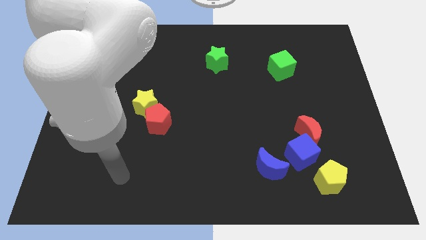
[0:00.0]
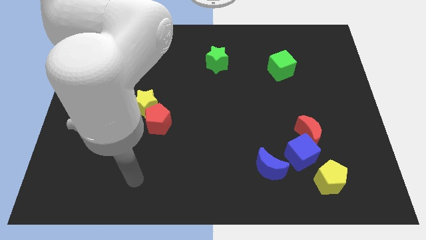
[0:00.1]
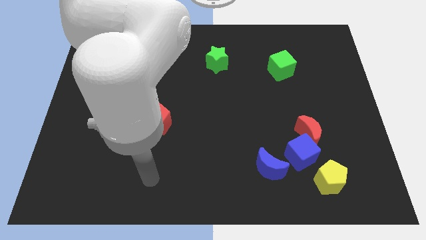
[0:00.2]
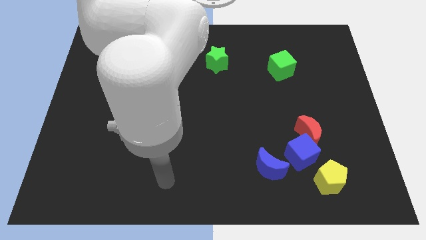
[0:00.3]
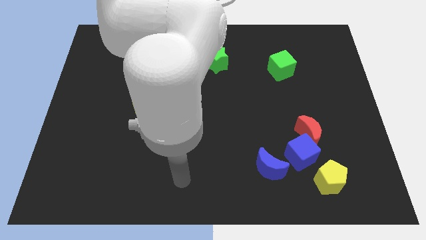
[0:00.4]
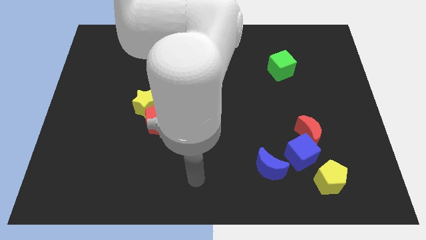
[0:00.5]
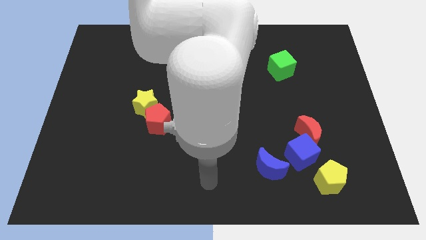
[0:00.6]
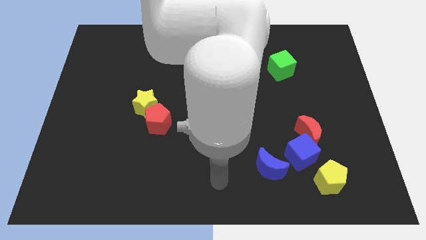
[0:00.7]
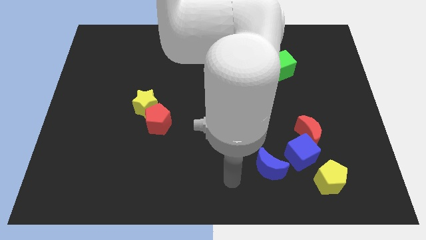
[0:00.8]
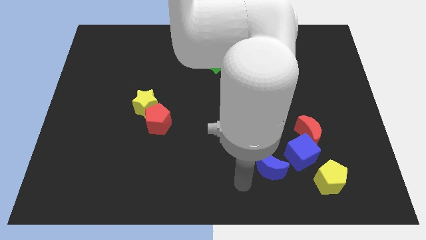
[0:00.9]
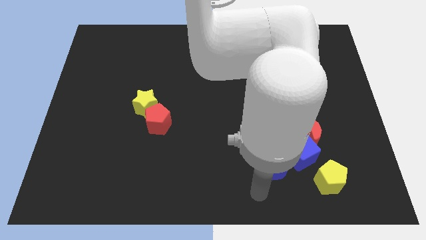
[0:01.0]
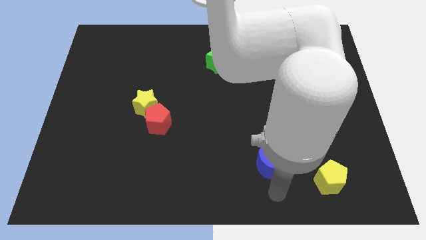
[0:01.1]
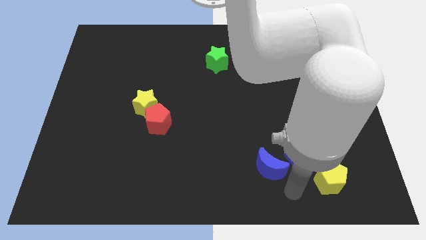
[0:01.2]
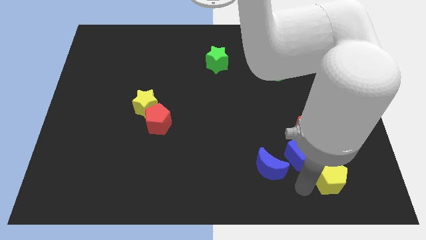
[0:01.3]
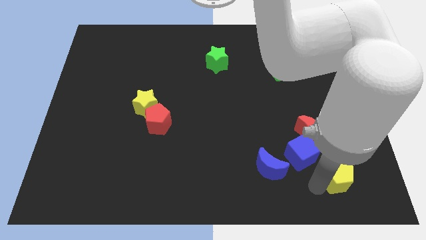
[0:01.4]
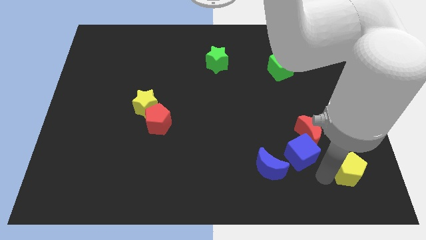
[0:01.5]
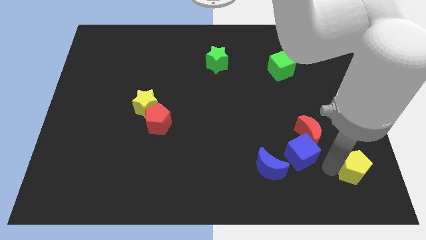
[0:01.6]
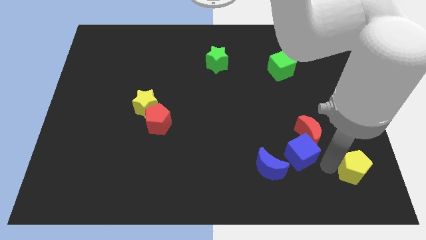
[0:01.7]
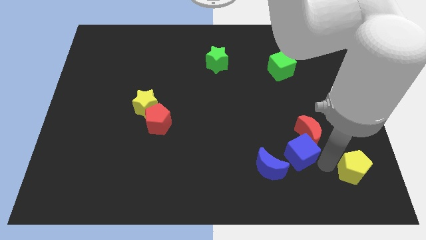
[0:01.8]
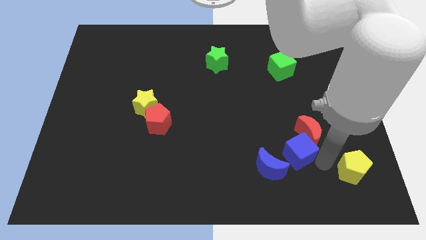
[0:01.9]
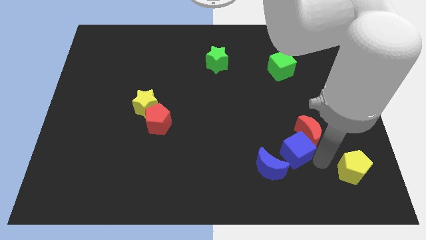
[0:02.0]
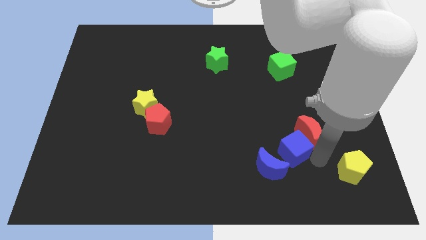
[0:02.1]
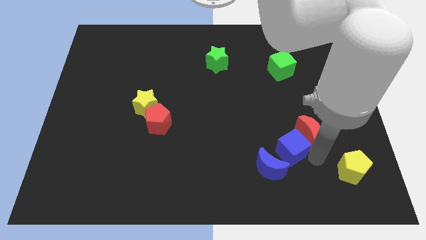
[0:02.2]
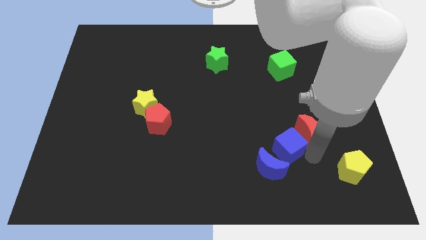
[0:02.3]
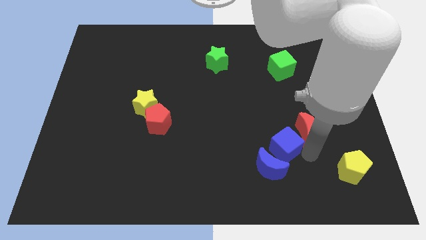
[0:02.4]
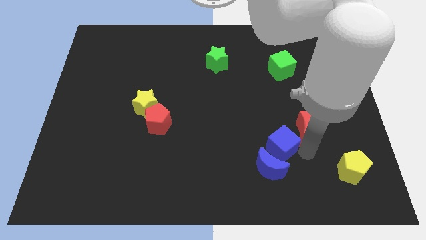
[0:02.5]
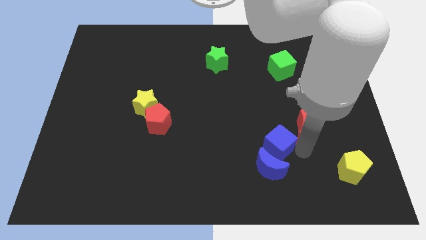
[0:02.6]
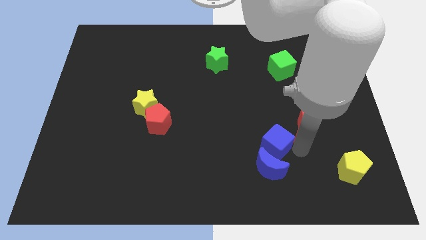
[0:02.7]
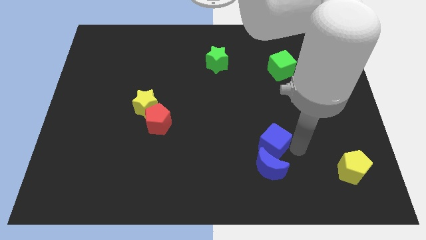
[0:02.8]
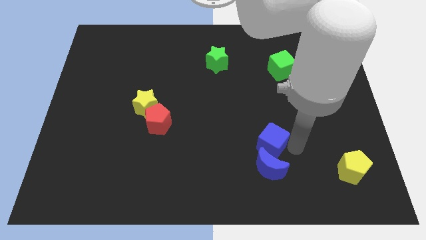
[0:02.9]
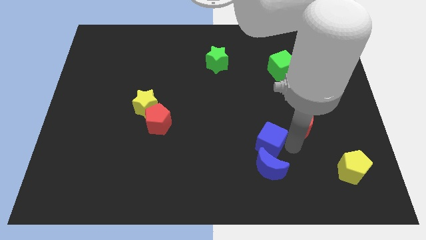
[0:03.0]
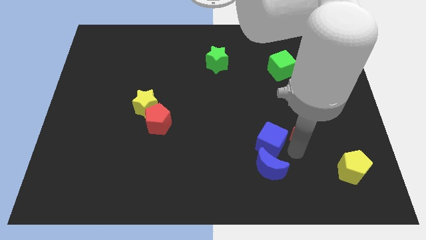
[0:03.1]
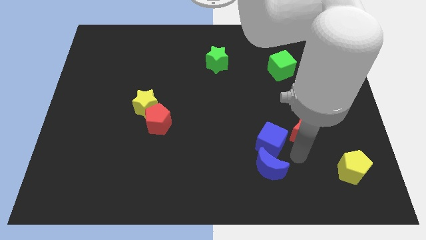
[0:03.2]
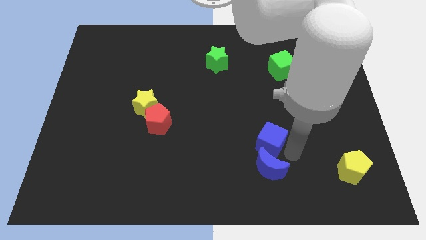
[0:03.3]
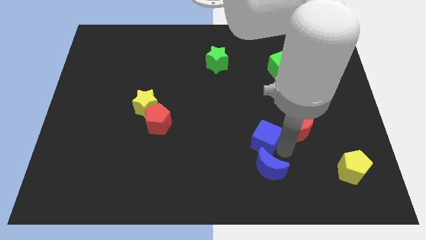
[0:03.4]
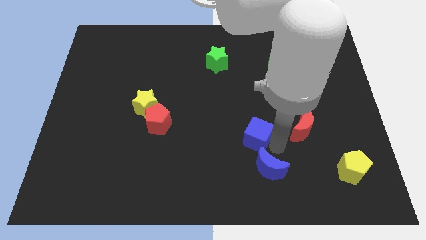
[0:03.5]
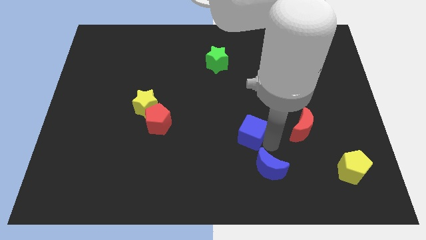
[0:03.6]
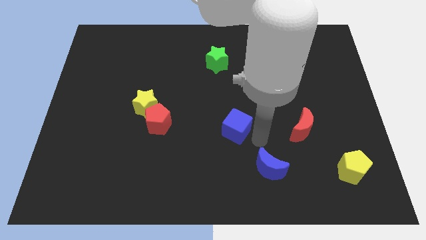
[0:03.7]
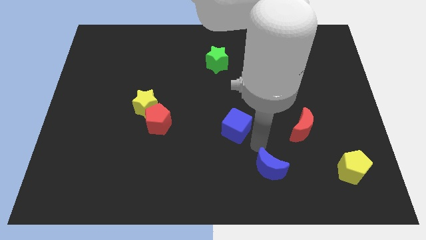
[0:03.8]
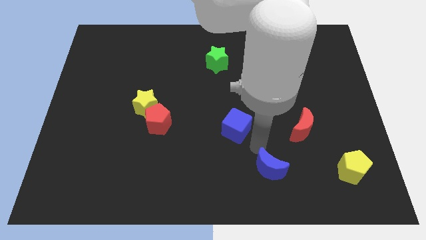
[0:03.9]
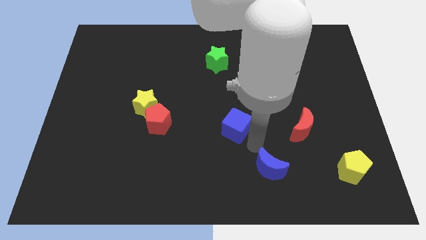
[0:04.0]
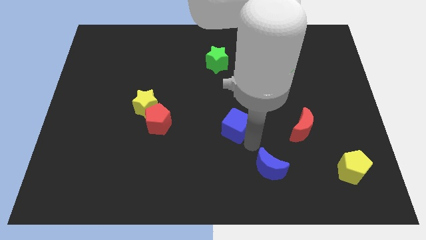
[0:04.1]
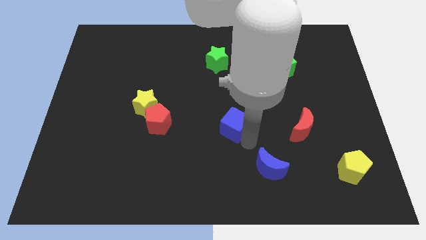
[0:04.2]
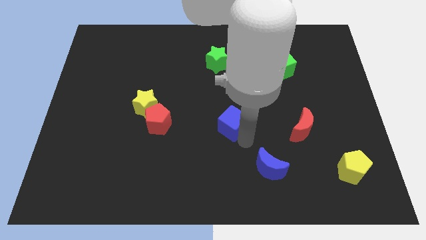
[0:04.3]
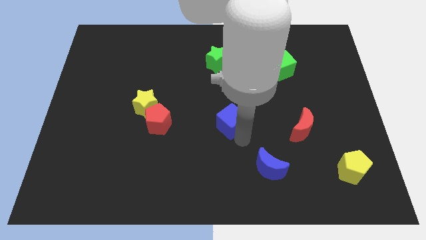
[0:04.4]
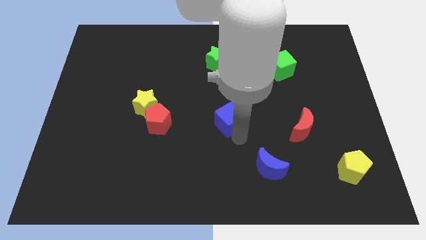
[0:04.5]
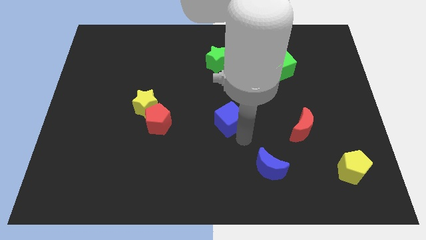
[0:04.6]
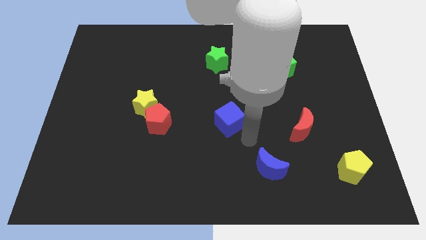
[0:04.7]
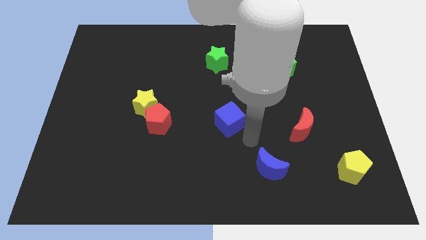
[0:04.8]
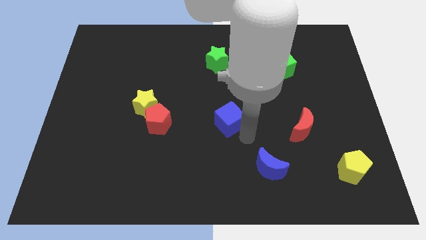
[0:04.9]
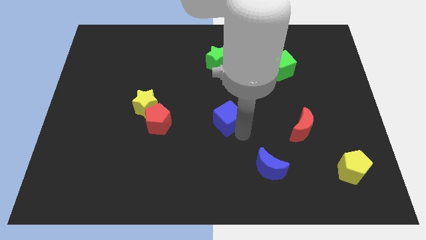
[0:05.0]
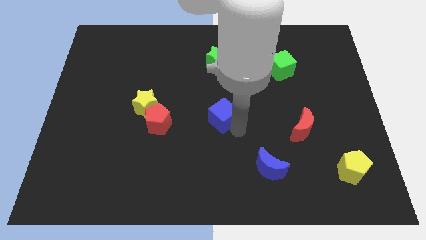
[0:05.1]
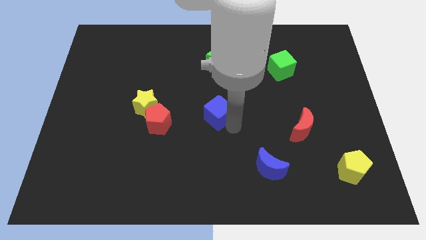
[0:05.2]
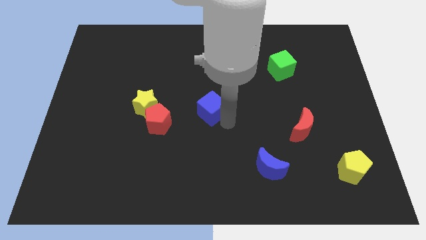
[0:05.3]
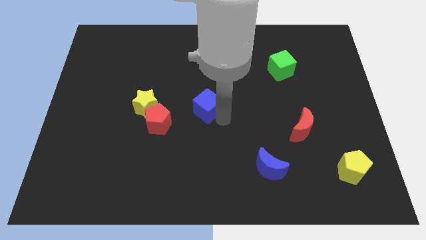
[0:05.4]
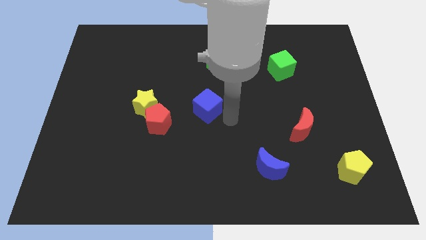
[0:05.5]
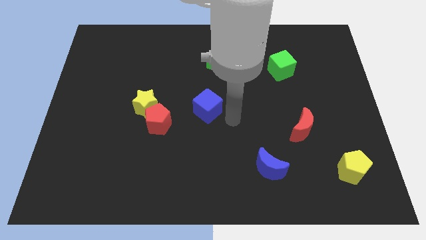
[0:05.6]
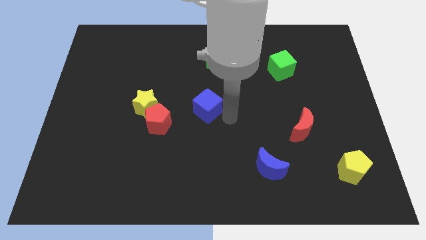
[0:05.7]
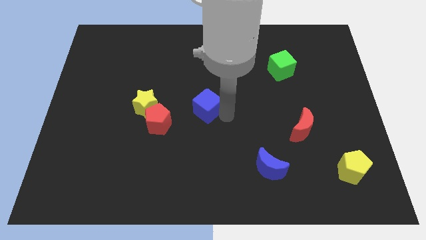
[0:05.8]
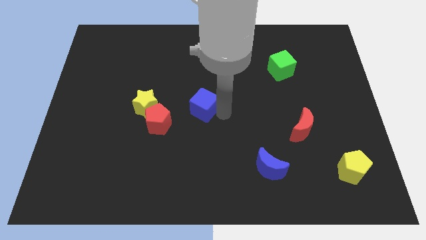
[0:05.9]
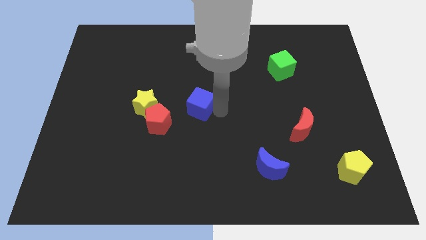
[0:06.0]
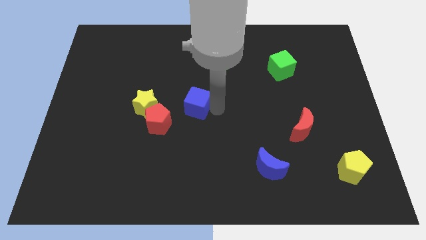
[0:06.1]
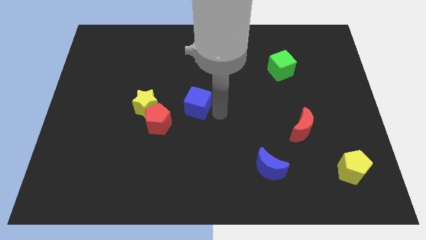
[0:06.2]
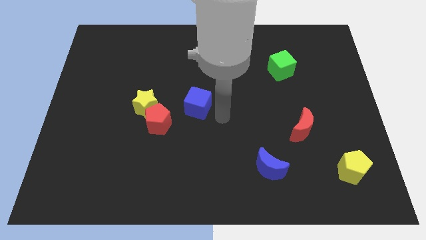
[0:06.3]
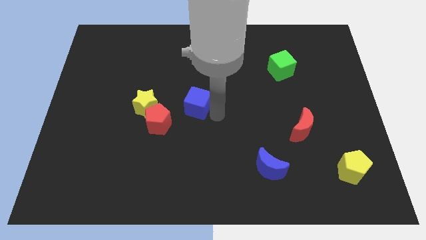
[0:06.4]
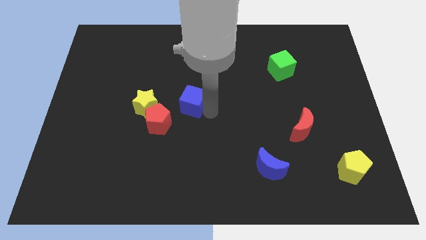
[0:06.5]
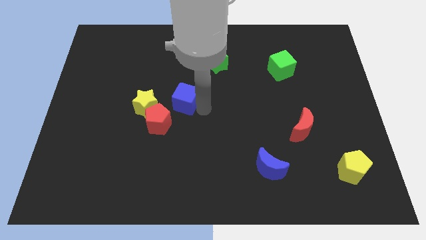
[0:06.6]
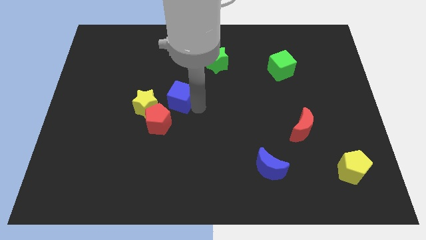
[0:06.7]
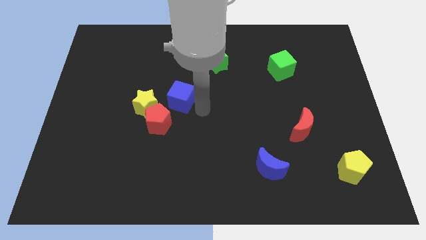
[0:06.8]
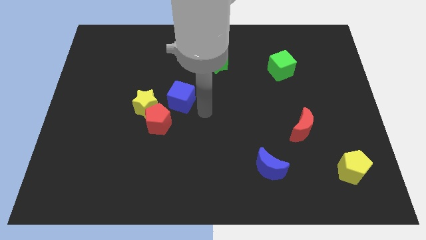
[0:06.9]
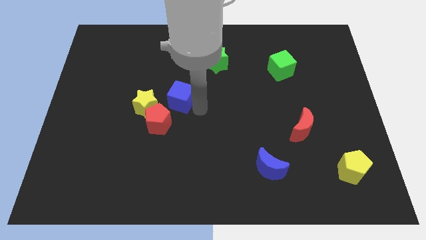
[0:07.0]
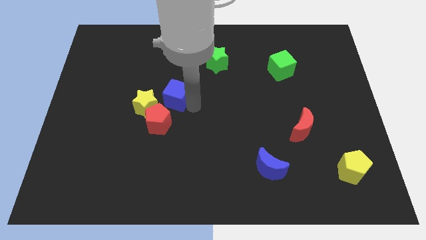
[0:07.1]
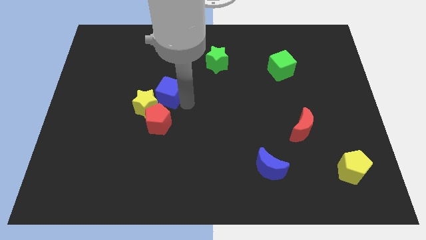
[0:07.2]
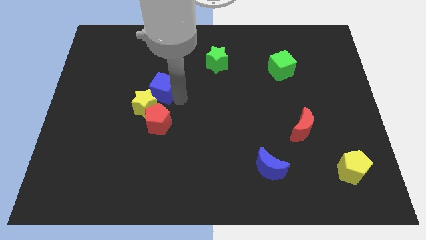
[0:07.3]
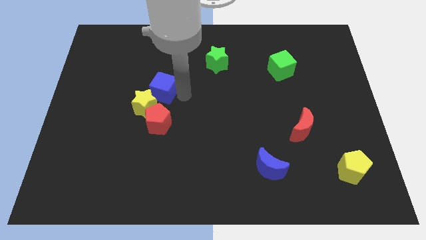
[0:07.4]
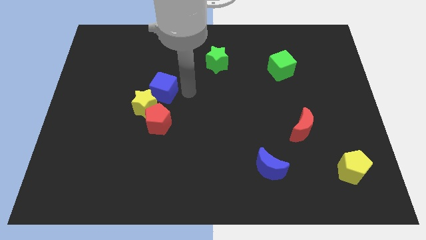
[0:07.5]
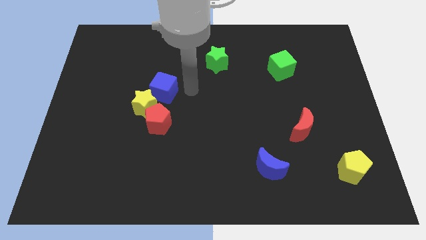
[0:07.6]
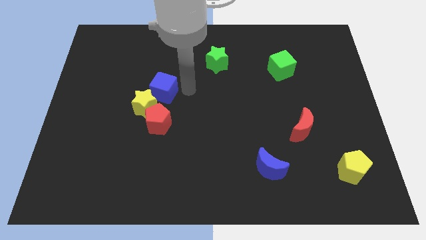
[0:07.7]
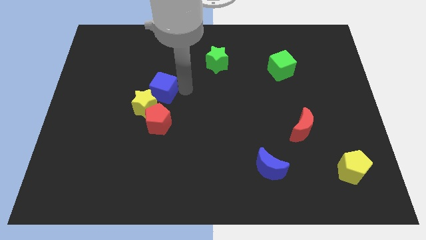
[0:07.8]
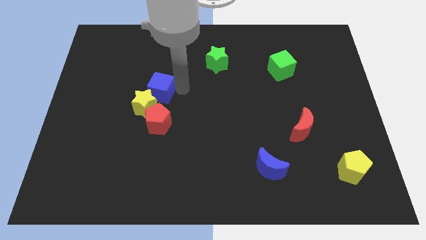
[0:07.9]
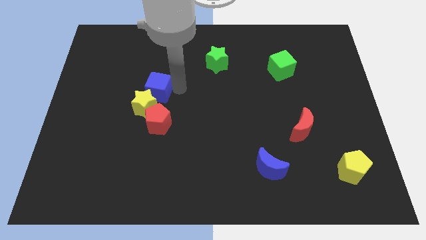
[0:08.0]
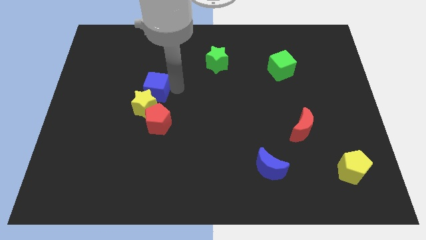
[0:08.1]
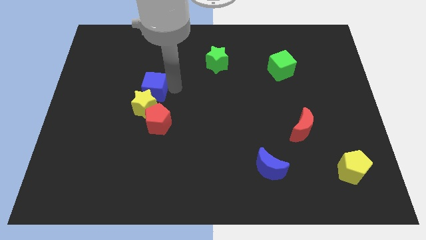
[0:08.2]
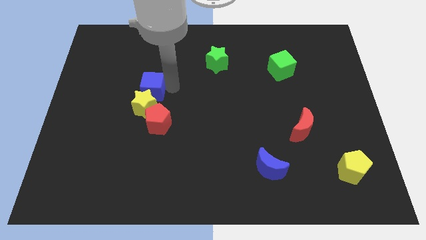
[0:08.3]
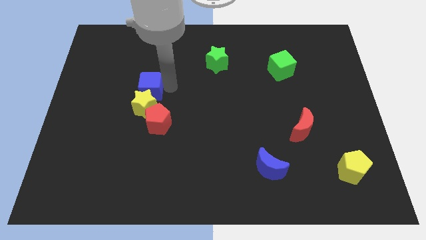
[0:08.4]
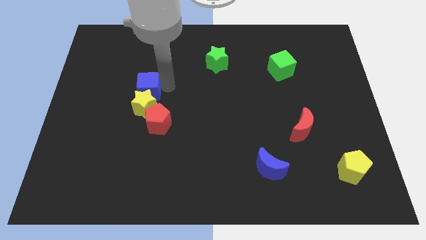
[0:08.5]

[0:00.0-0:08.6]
put the blue cube diagonally up and to the left of the red pentagon
